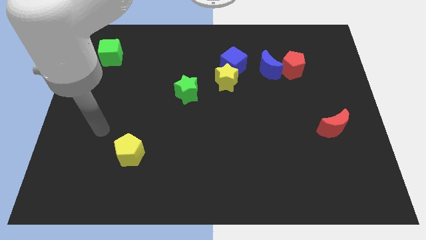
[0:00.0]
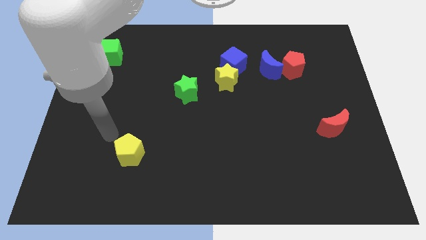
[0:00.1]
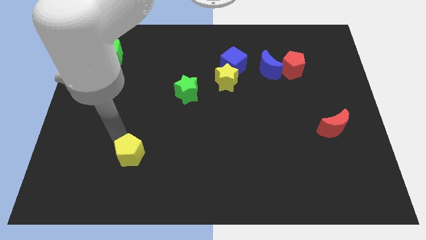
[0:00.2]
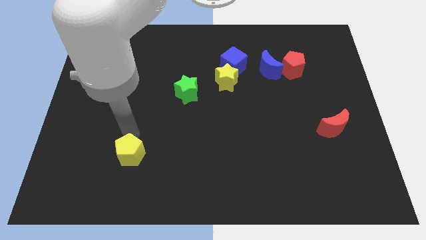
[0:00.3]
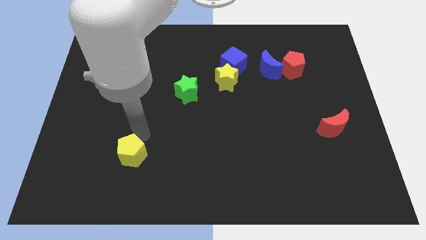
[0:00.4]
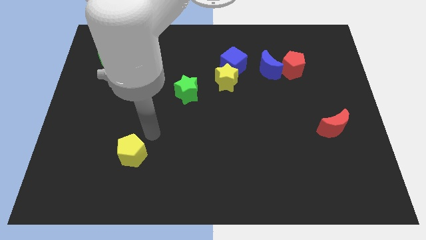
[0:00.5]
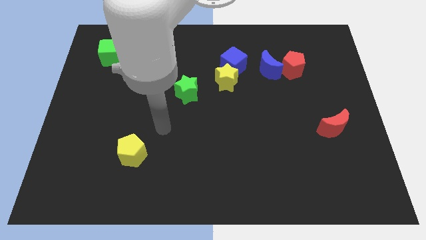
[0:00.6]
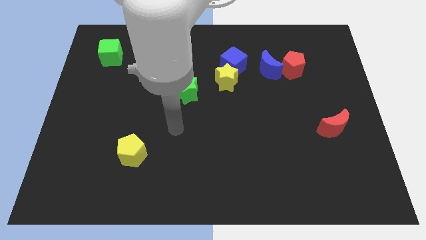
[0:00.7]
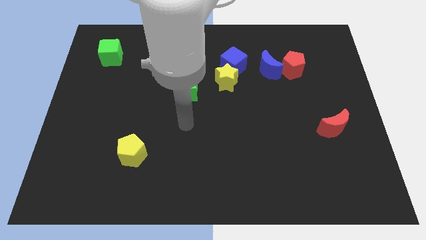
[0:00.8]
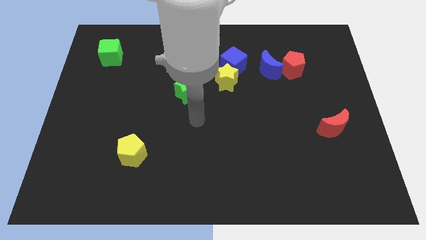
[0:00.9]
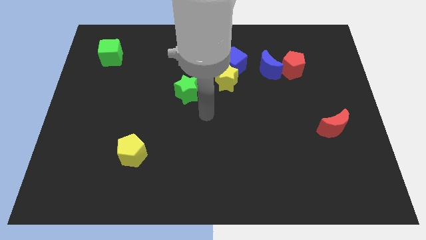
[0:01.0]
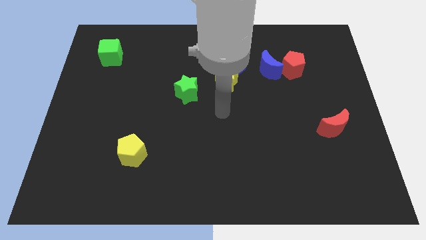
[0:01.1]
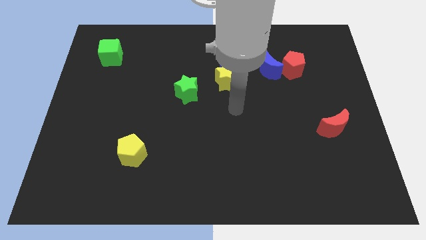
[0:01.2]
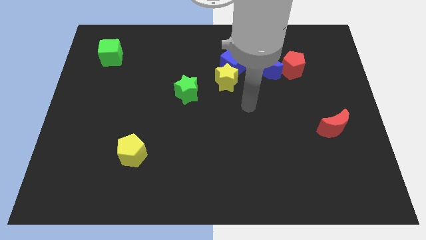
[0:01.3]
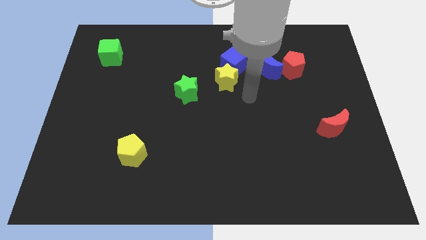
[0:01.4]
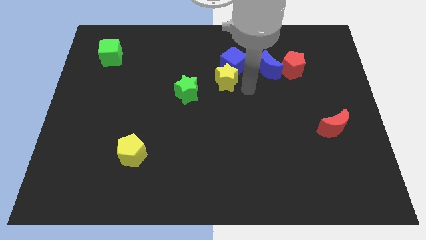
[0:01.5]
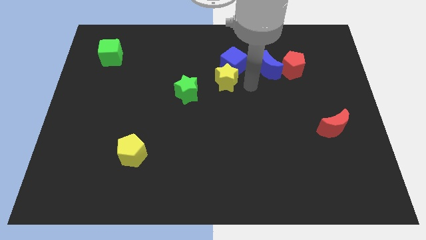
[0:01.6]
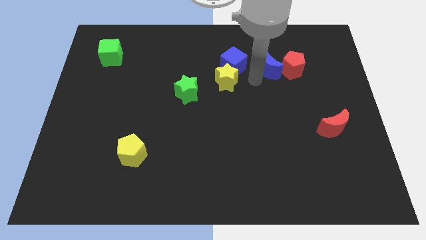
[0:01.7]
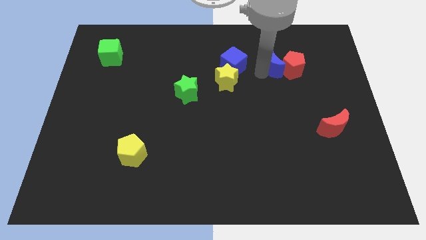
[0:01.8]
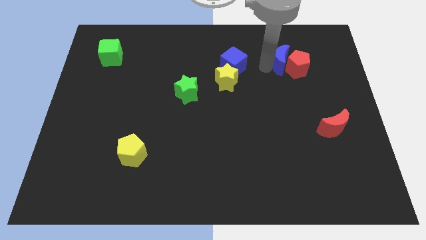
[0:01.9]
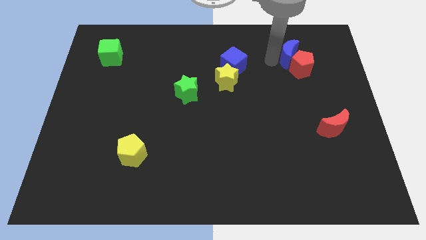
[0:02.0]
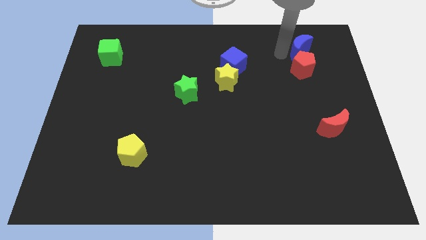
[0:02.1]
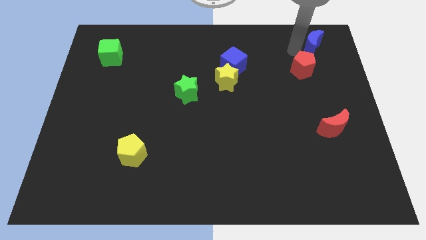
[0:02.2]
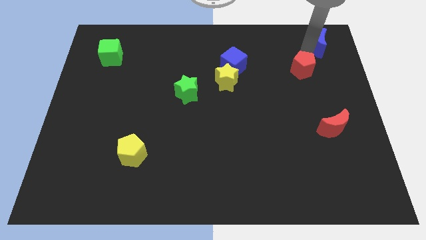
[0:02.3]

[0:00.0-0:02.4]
pull the red pentagon apart from the blue moon

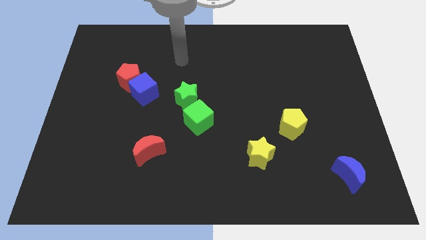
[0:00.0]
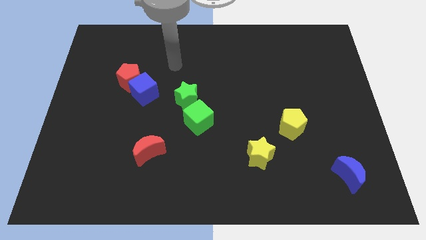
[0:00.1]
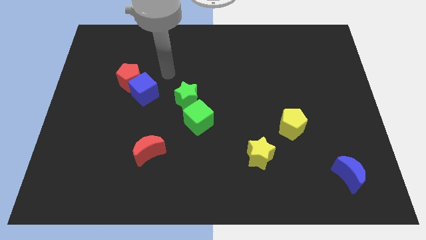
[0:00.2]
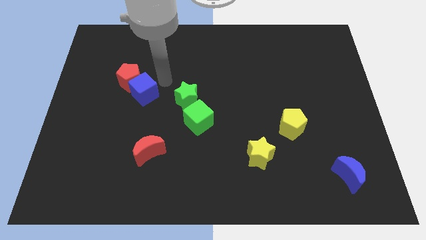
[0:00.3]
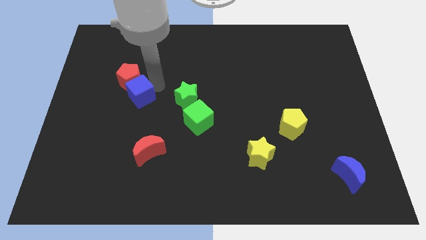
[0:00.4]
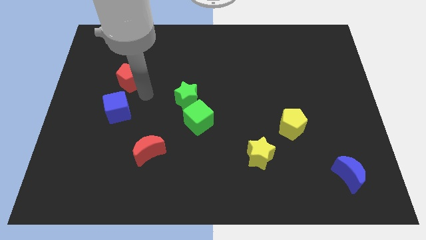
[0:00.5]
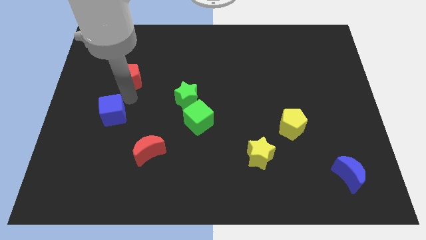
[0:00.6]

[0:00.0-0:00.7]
pull the red pentagon apart from the blue cube

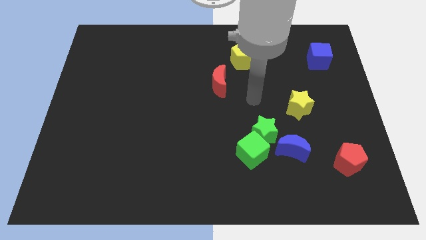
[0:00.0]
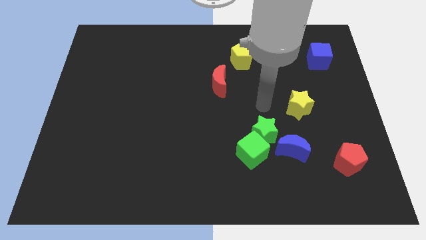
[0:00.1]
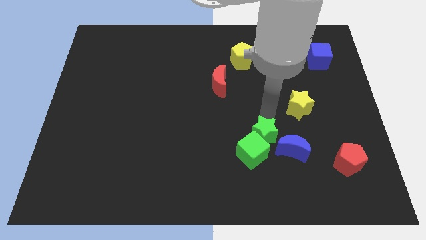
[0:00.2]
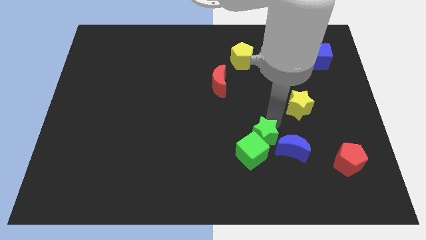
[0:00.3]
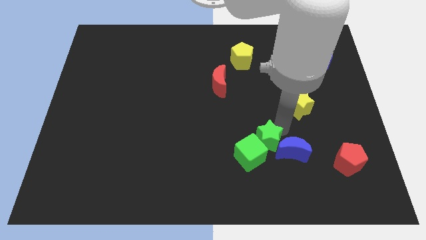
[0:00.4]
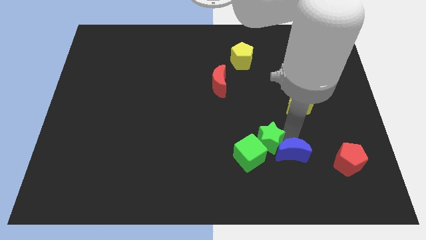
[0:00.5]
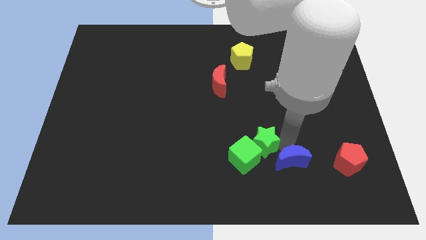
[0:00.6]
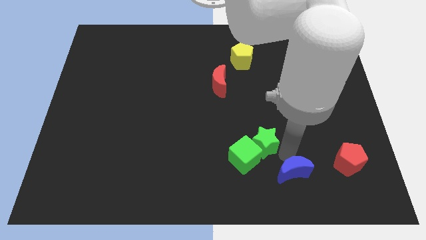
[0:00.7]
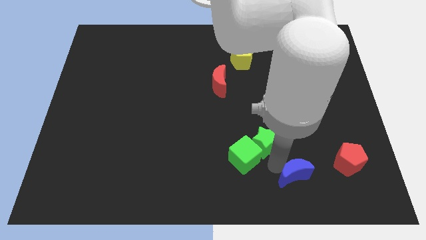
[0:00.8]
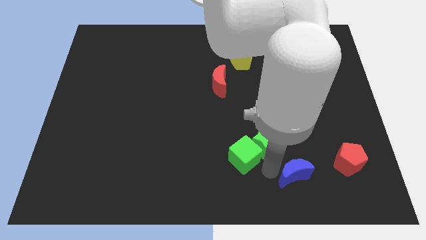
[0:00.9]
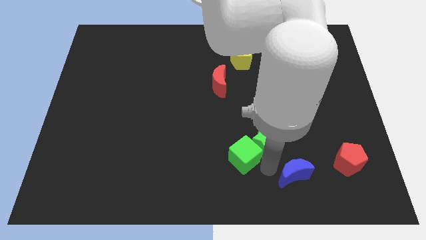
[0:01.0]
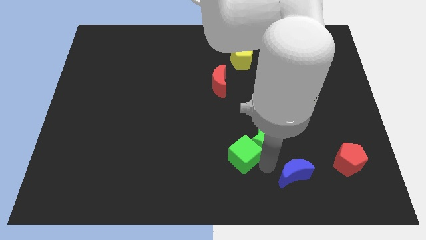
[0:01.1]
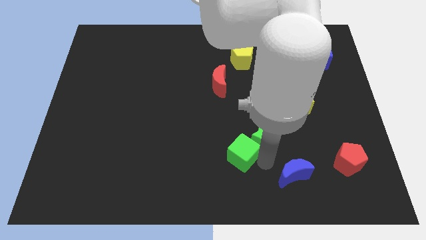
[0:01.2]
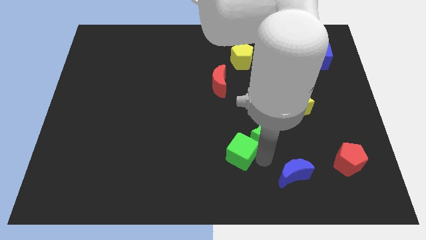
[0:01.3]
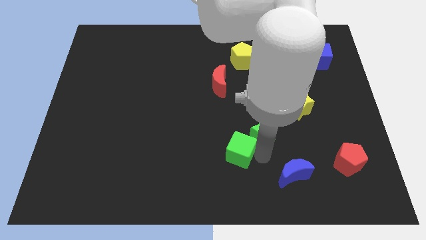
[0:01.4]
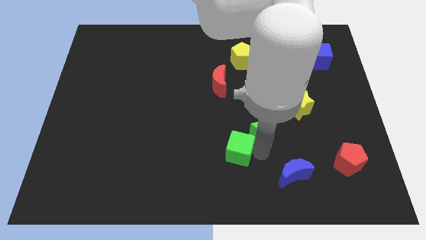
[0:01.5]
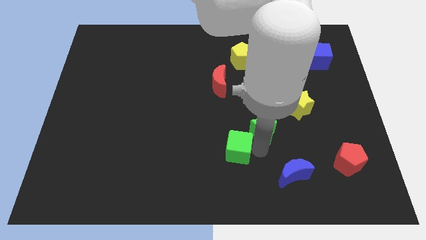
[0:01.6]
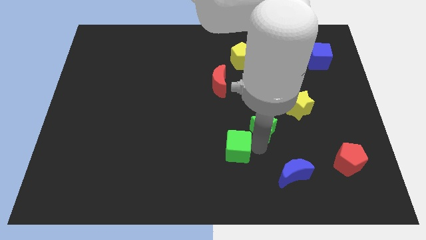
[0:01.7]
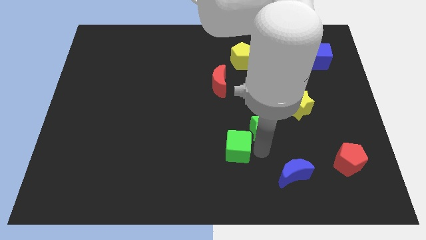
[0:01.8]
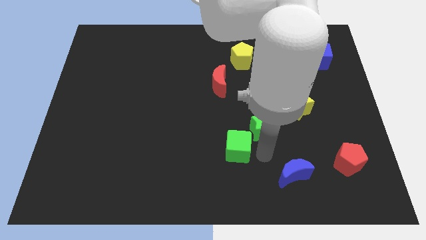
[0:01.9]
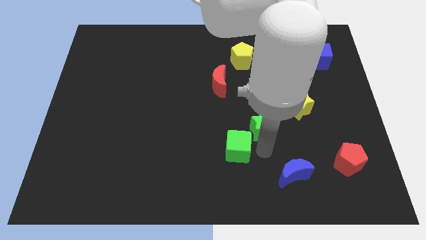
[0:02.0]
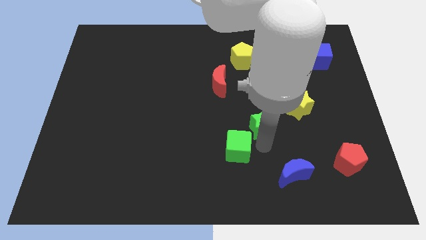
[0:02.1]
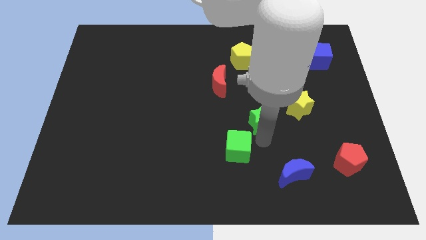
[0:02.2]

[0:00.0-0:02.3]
move the green star away from the green cube and blue moon

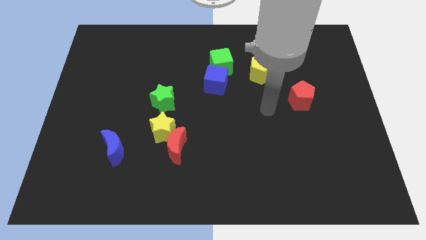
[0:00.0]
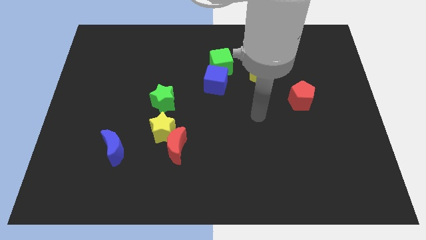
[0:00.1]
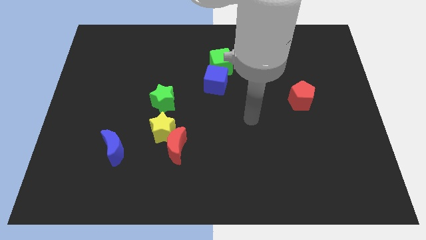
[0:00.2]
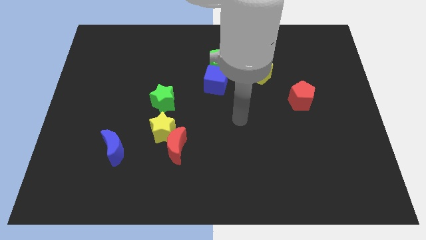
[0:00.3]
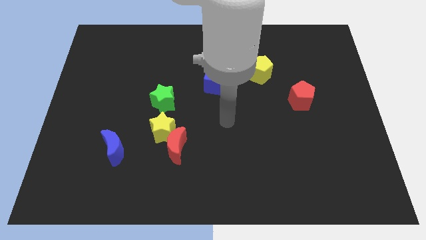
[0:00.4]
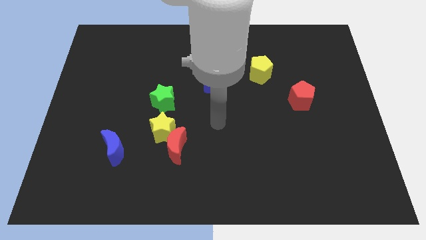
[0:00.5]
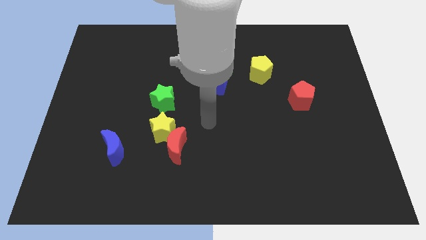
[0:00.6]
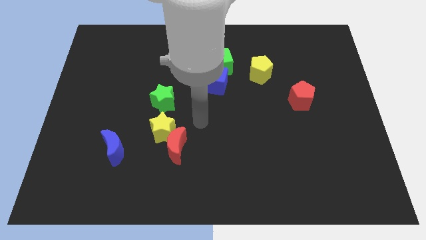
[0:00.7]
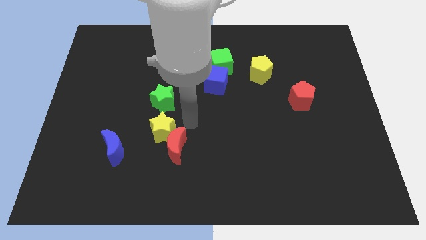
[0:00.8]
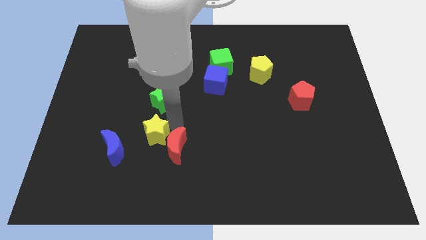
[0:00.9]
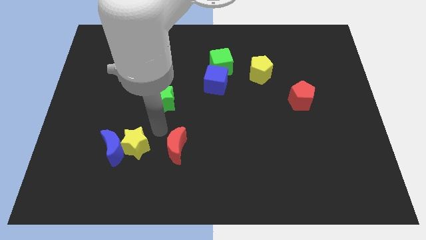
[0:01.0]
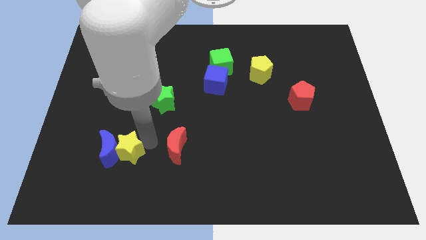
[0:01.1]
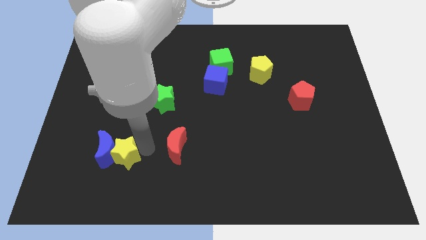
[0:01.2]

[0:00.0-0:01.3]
separate the red moon from the yellow star

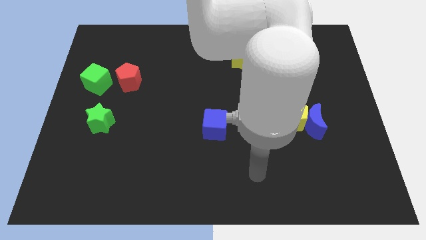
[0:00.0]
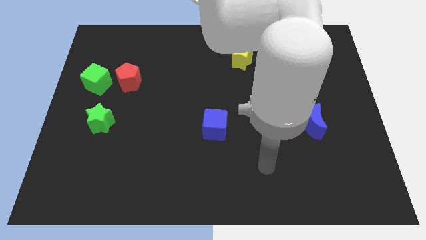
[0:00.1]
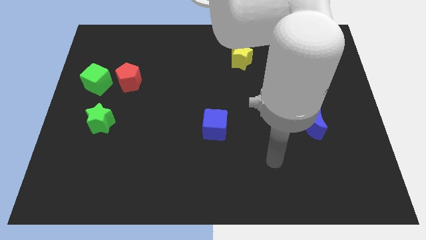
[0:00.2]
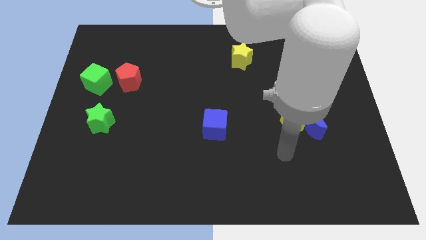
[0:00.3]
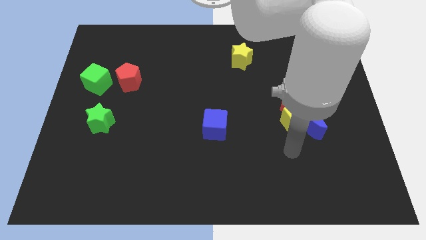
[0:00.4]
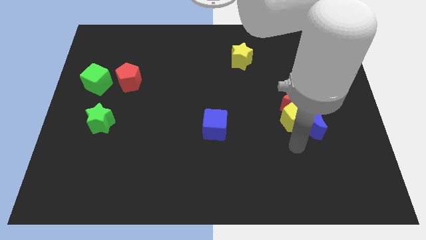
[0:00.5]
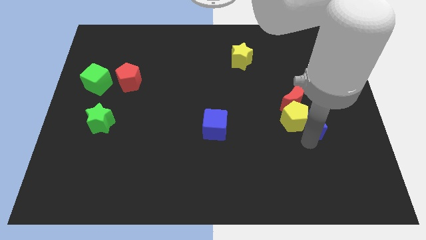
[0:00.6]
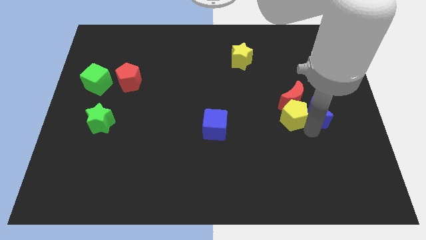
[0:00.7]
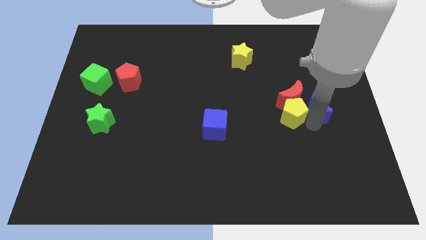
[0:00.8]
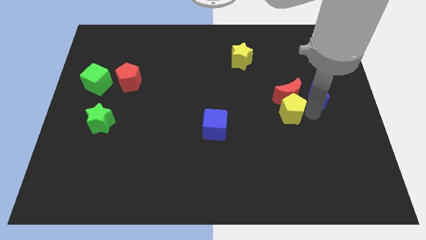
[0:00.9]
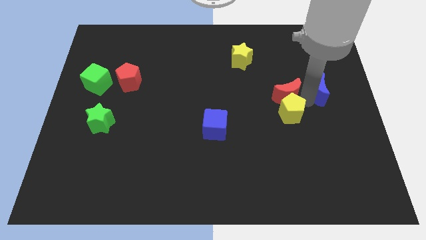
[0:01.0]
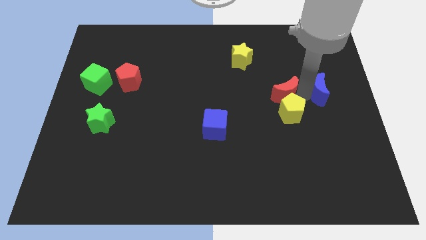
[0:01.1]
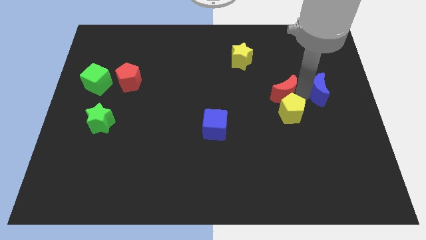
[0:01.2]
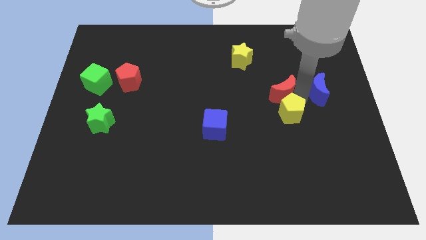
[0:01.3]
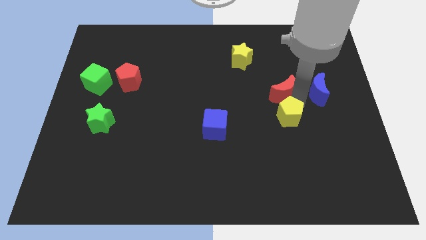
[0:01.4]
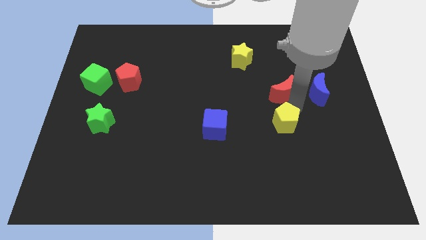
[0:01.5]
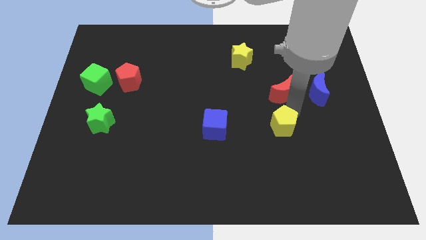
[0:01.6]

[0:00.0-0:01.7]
move the yellow pentagon away from the blue moon and red moon

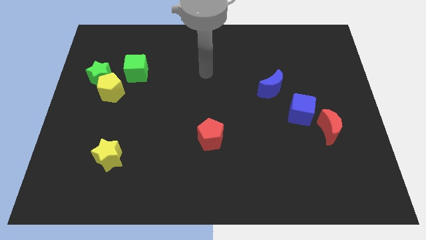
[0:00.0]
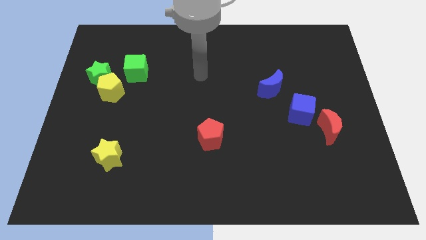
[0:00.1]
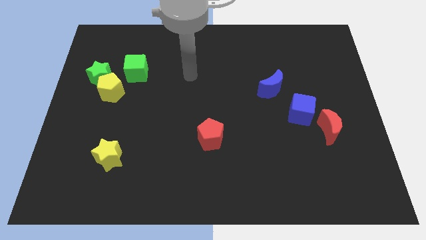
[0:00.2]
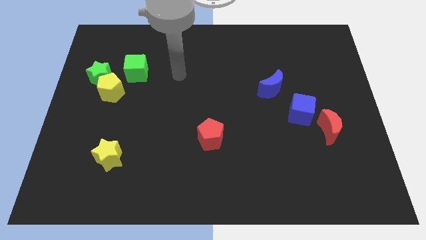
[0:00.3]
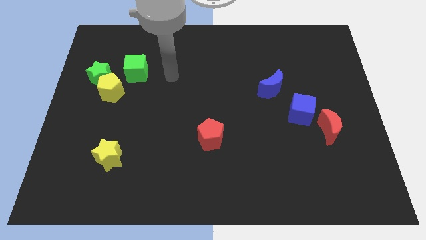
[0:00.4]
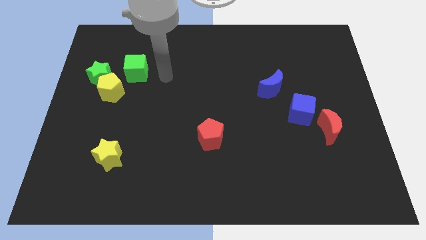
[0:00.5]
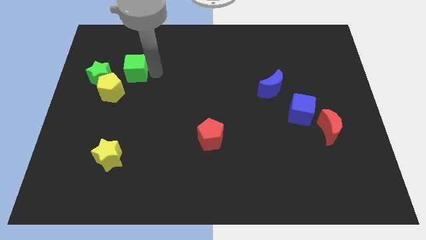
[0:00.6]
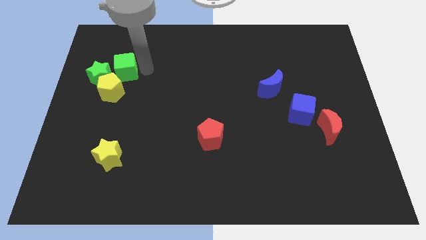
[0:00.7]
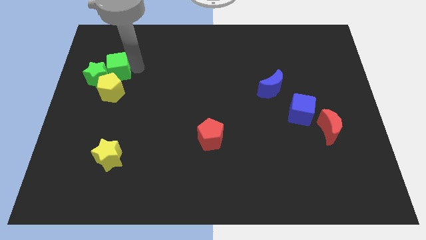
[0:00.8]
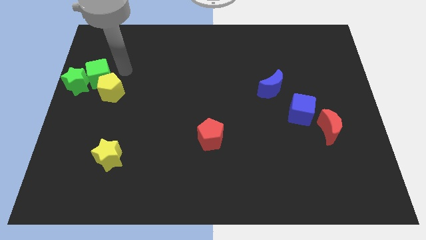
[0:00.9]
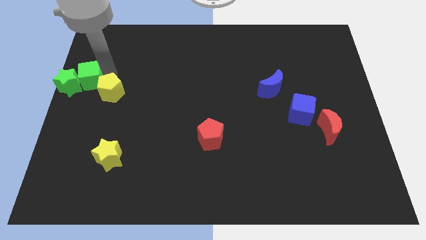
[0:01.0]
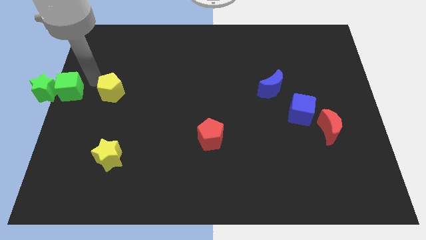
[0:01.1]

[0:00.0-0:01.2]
separate the yellow pentagon from the green star and green cube
